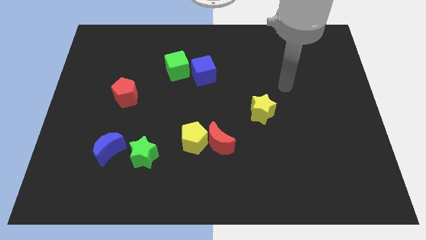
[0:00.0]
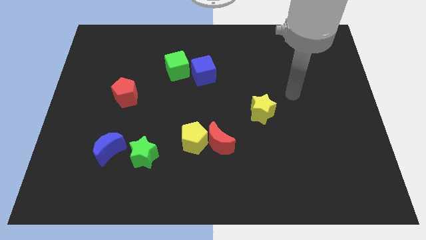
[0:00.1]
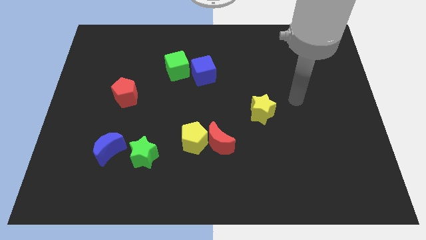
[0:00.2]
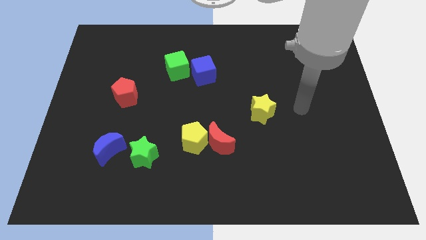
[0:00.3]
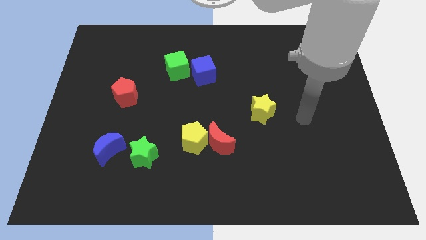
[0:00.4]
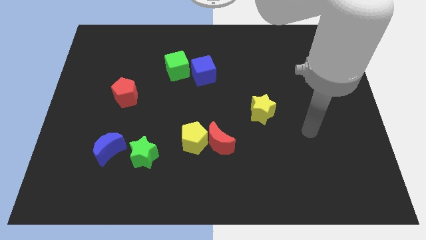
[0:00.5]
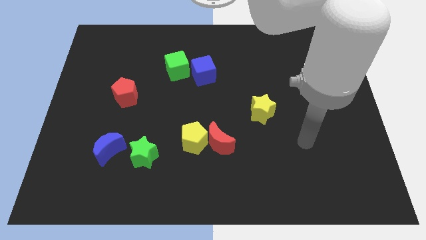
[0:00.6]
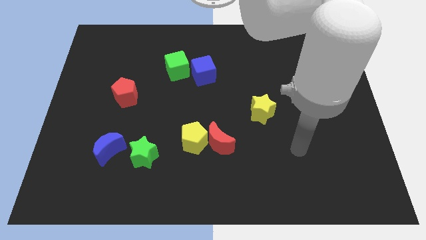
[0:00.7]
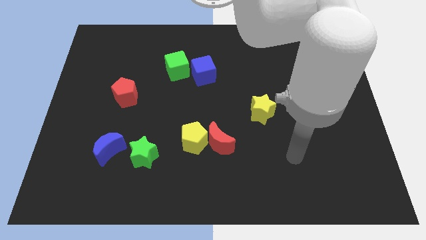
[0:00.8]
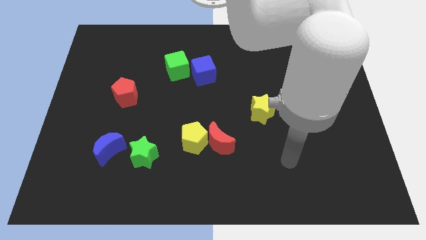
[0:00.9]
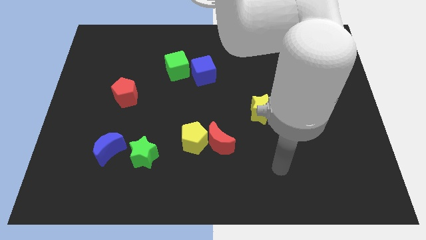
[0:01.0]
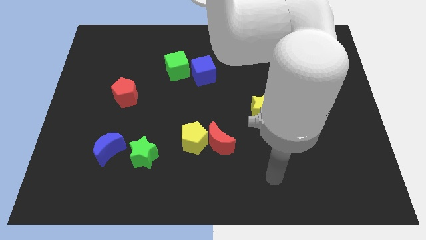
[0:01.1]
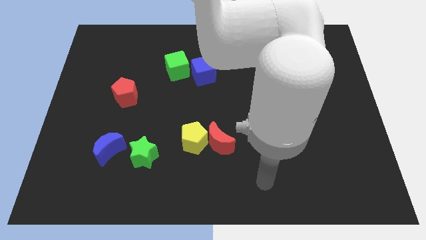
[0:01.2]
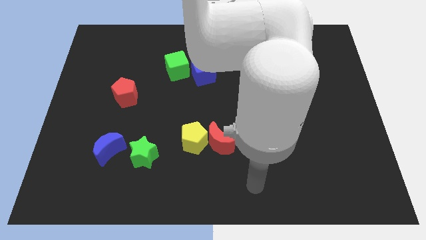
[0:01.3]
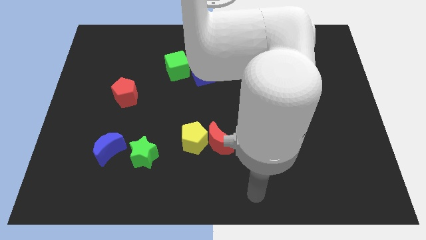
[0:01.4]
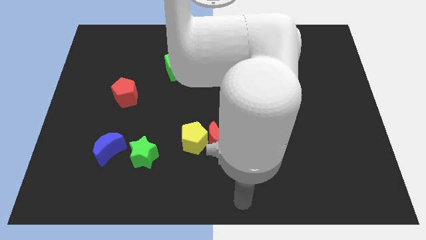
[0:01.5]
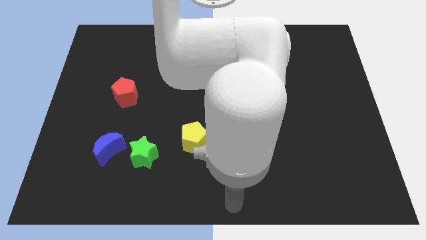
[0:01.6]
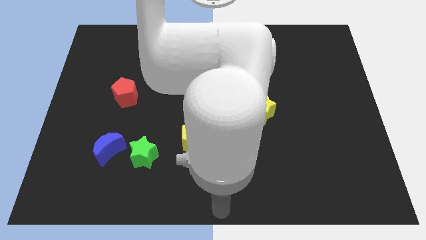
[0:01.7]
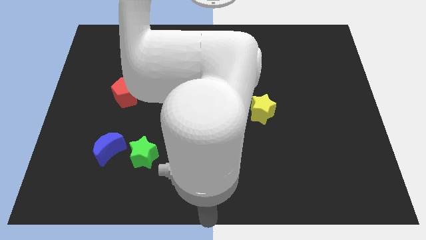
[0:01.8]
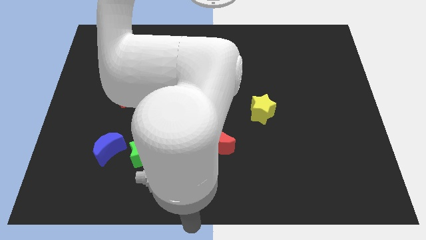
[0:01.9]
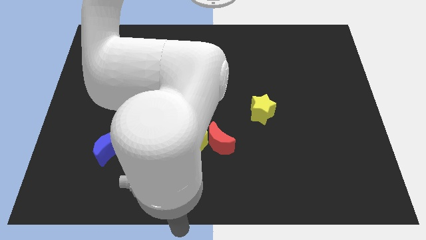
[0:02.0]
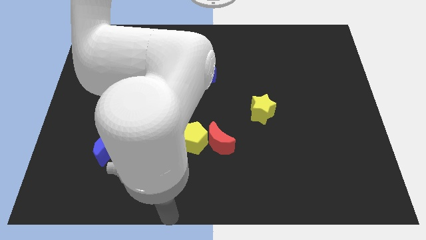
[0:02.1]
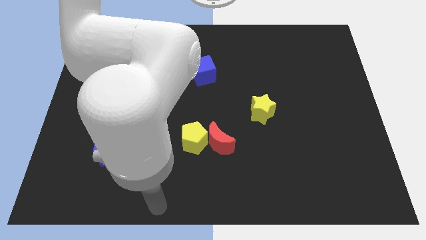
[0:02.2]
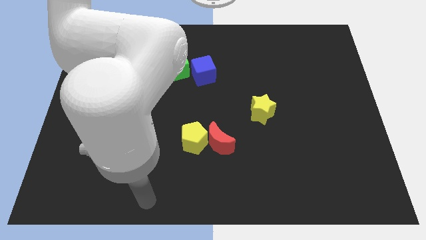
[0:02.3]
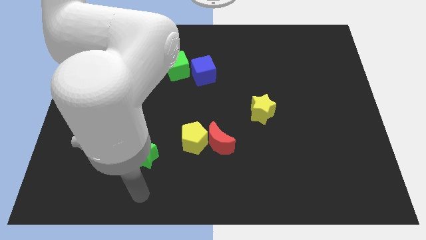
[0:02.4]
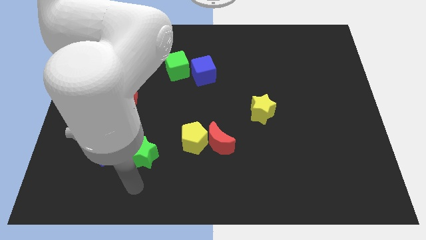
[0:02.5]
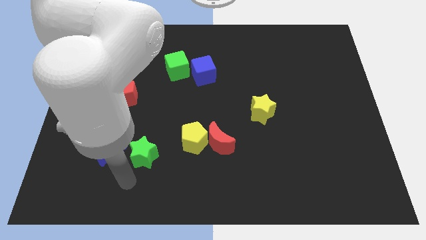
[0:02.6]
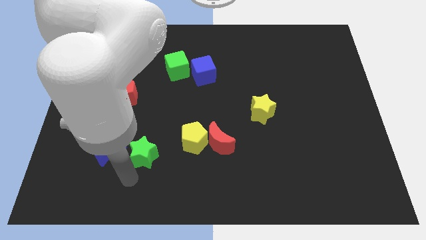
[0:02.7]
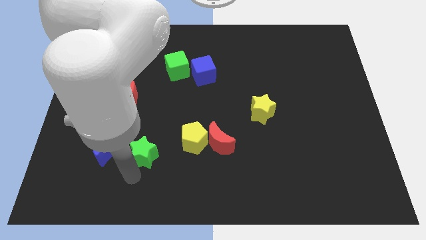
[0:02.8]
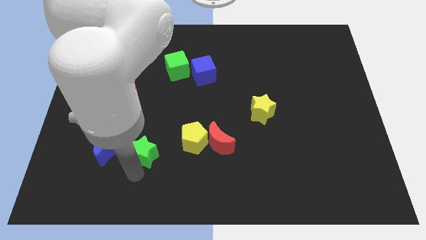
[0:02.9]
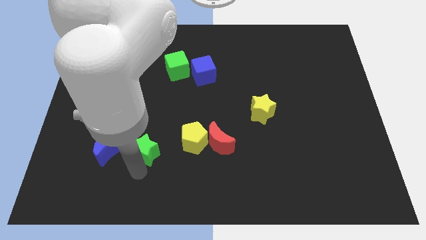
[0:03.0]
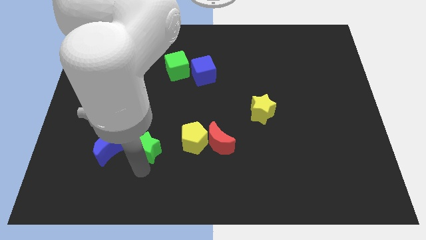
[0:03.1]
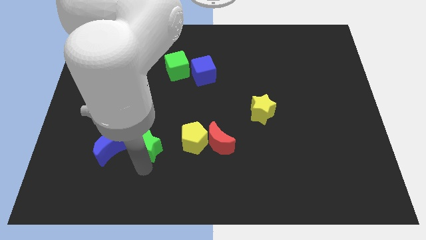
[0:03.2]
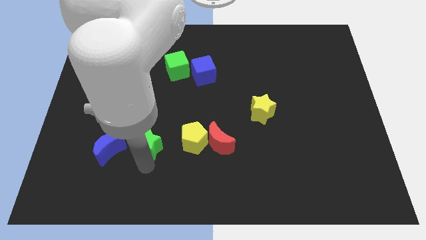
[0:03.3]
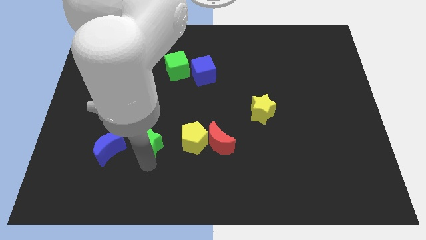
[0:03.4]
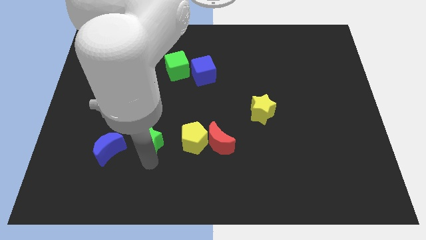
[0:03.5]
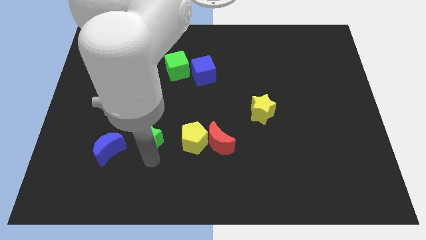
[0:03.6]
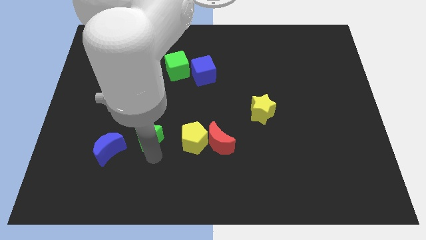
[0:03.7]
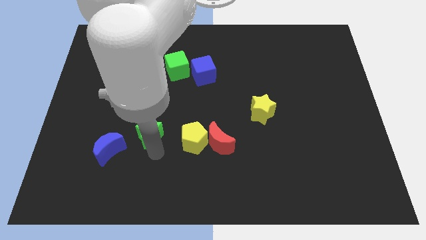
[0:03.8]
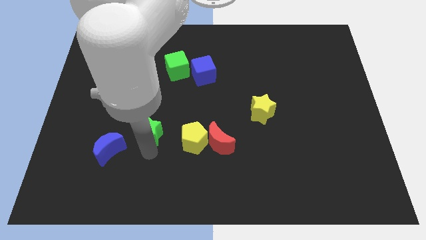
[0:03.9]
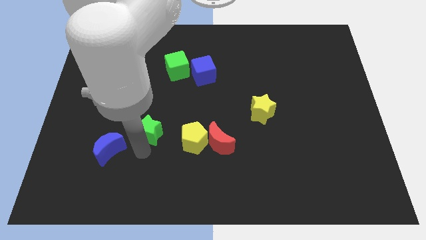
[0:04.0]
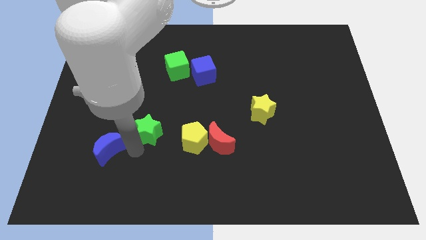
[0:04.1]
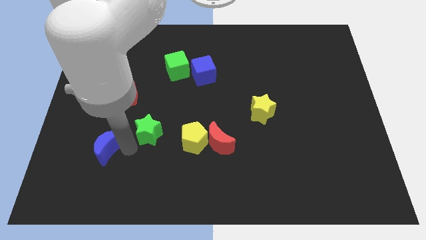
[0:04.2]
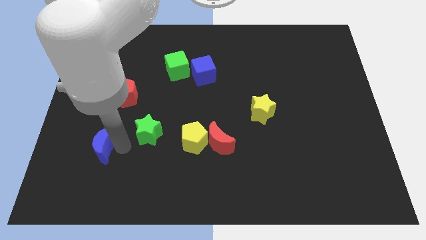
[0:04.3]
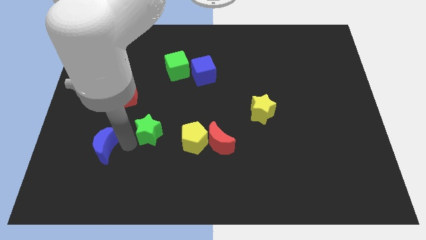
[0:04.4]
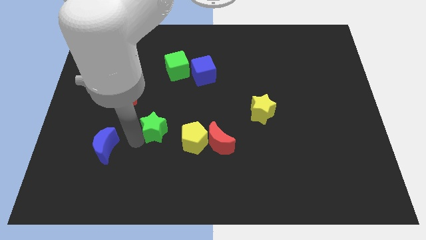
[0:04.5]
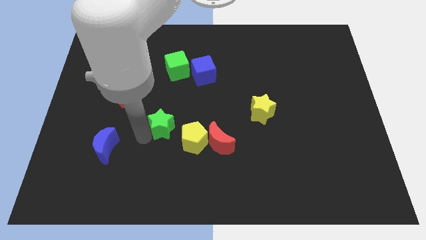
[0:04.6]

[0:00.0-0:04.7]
slightly move the green star upwards and to the right

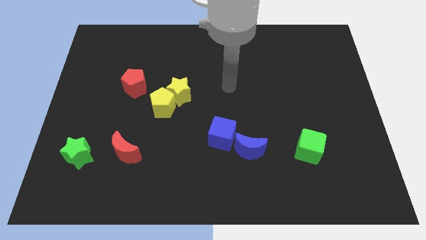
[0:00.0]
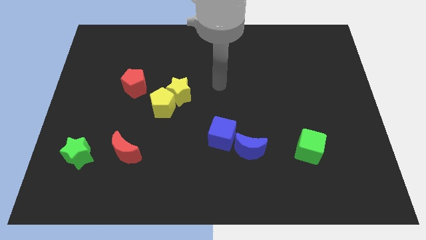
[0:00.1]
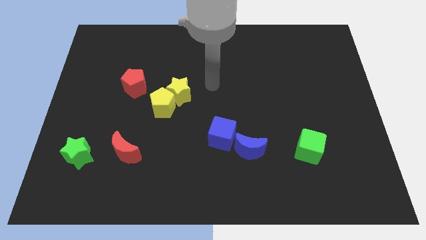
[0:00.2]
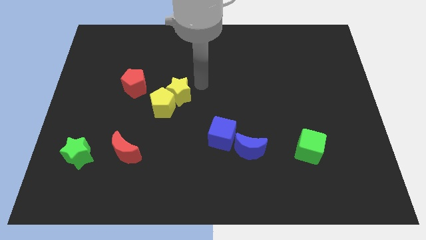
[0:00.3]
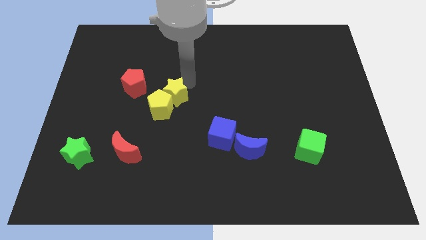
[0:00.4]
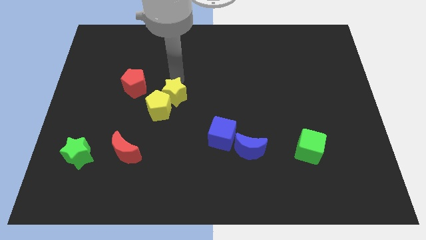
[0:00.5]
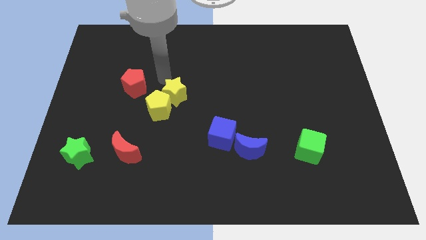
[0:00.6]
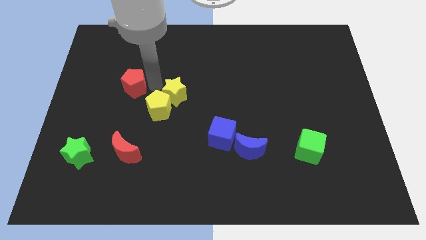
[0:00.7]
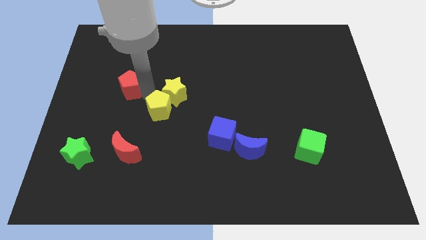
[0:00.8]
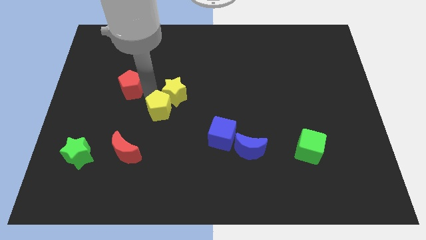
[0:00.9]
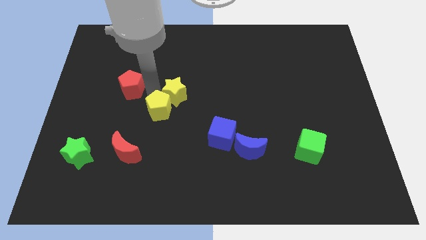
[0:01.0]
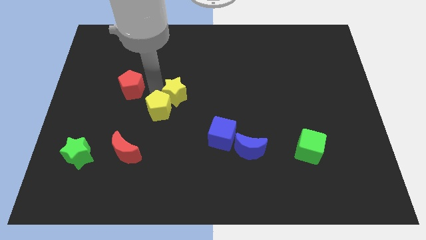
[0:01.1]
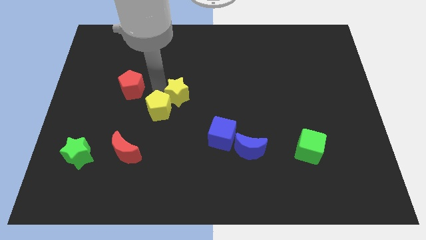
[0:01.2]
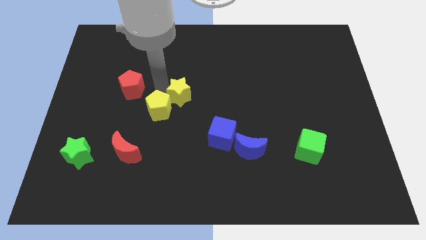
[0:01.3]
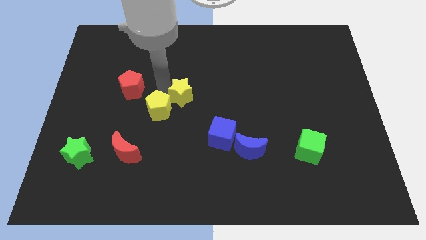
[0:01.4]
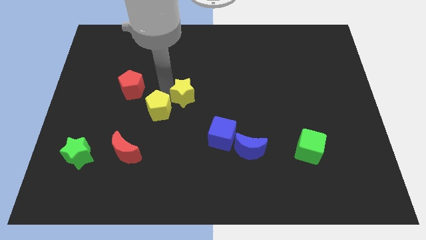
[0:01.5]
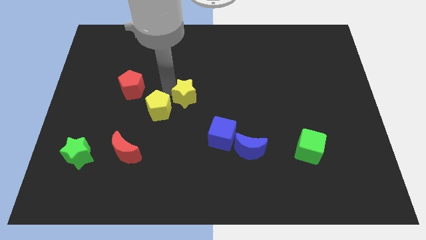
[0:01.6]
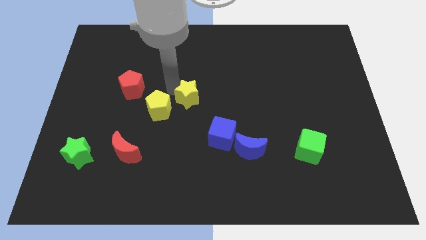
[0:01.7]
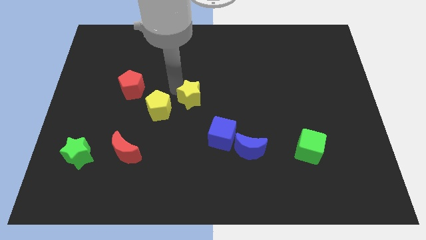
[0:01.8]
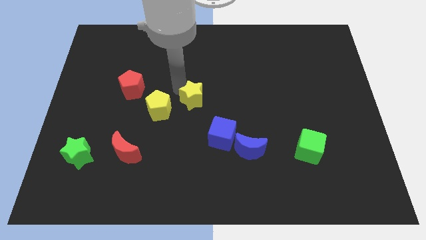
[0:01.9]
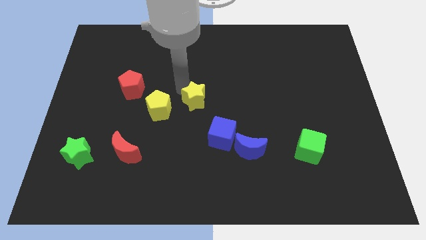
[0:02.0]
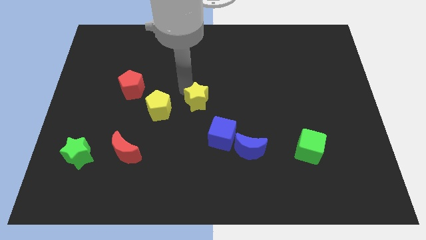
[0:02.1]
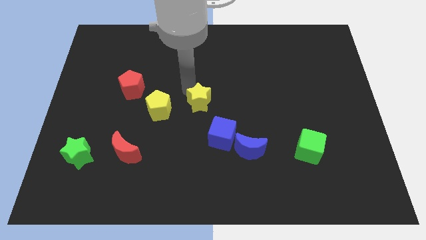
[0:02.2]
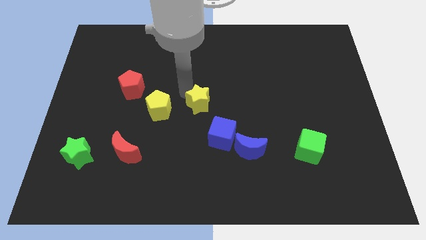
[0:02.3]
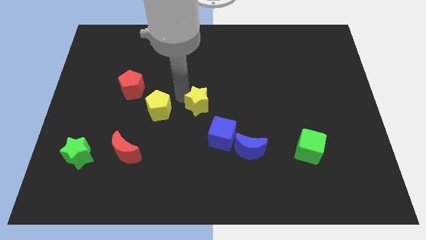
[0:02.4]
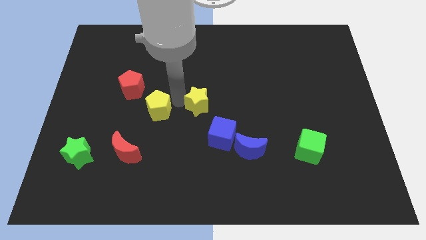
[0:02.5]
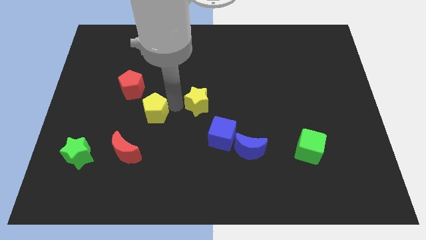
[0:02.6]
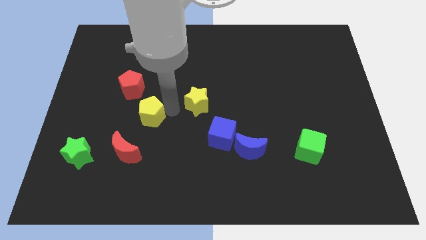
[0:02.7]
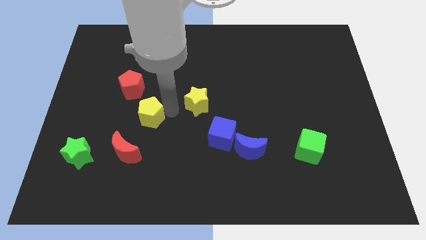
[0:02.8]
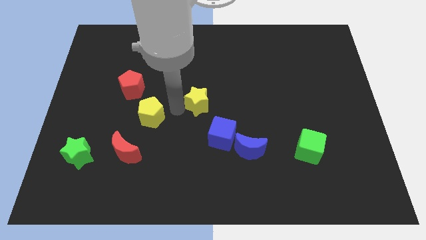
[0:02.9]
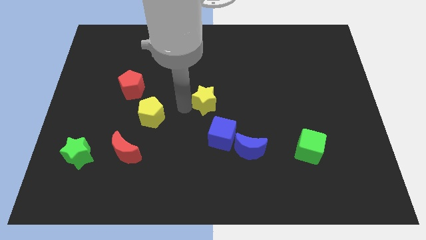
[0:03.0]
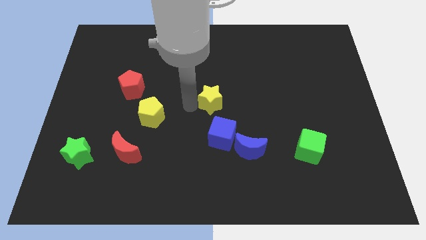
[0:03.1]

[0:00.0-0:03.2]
slide the yellow star to the right a little bit

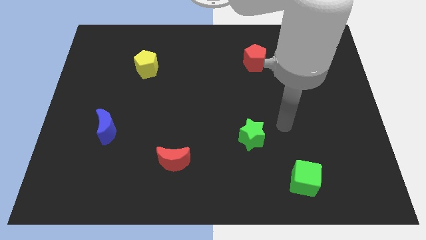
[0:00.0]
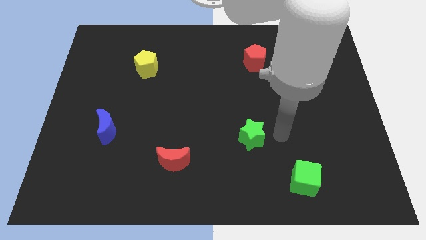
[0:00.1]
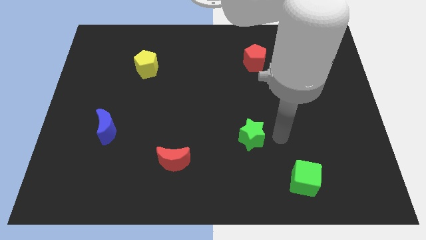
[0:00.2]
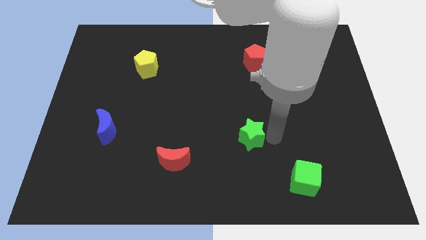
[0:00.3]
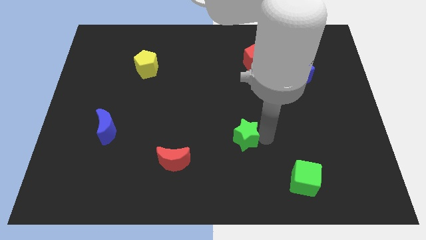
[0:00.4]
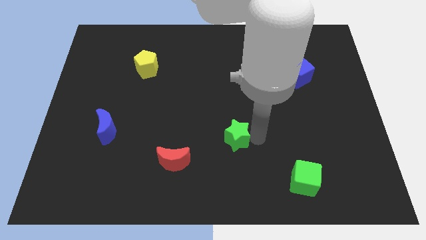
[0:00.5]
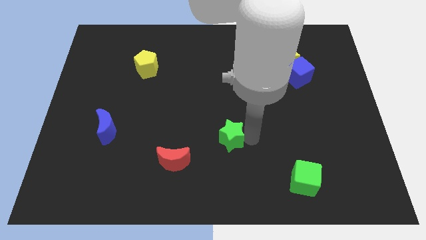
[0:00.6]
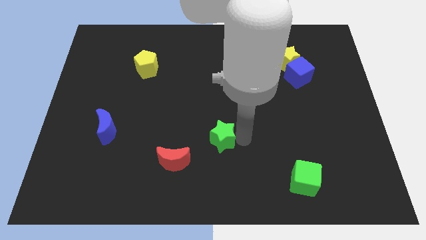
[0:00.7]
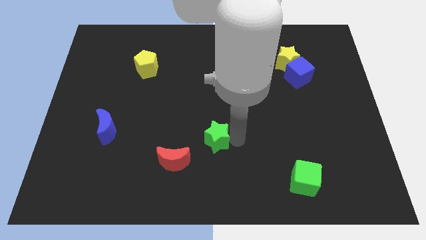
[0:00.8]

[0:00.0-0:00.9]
slightly move the green star to the left
